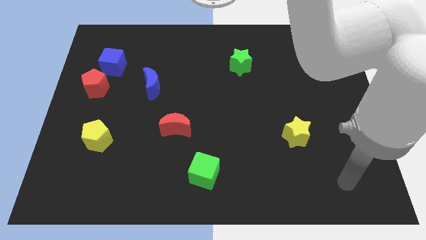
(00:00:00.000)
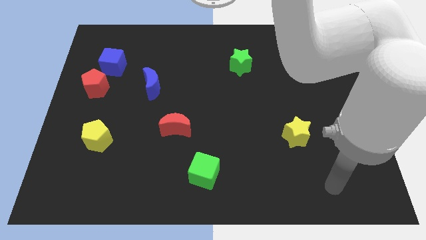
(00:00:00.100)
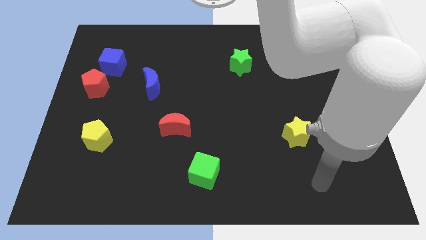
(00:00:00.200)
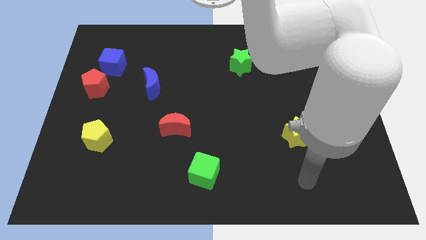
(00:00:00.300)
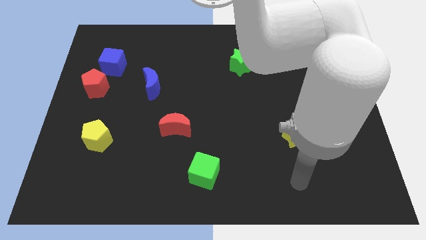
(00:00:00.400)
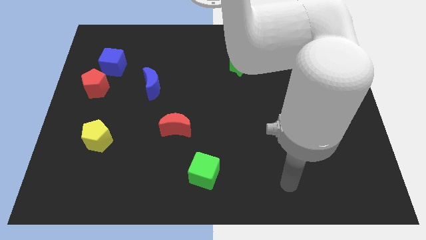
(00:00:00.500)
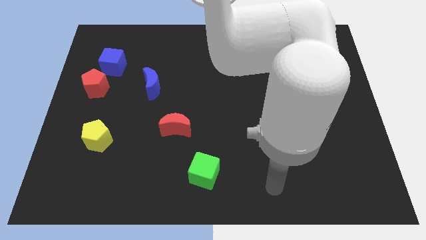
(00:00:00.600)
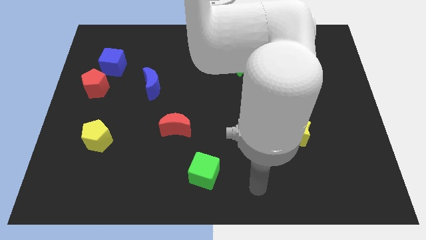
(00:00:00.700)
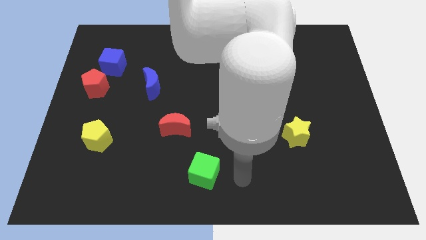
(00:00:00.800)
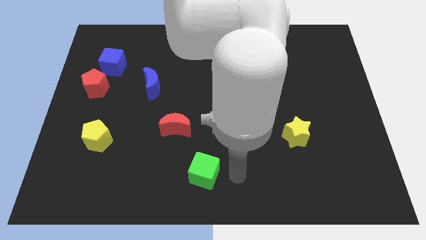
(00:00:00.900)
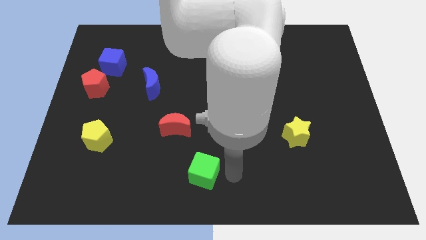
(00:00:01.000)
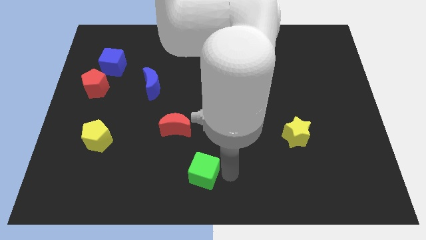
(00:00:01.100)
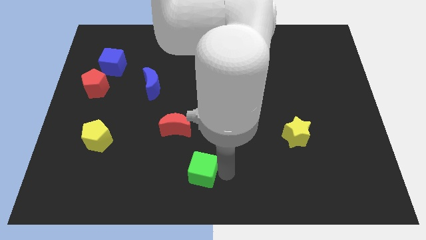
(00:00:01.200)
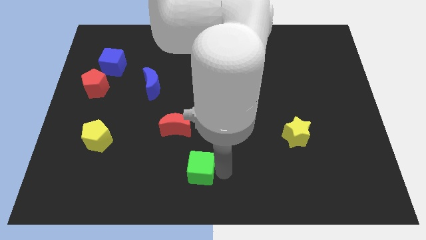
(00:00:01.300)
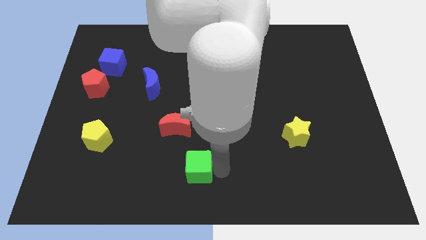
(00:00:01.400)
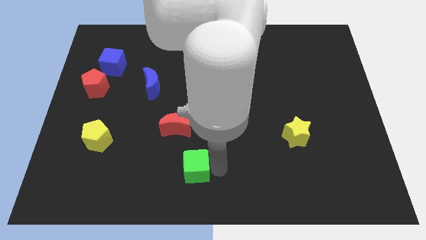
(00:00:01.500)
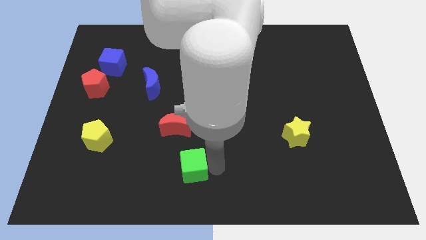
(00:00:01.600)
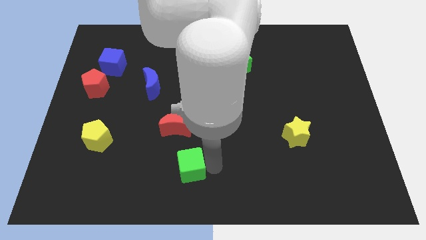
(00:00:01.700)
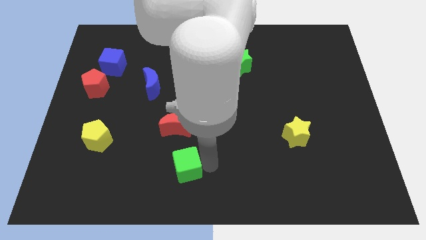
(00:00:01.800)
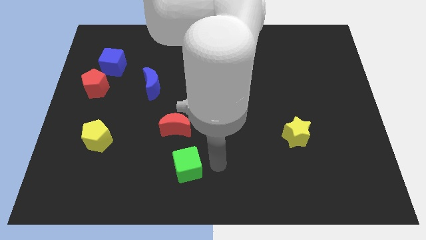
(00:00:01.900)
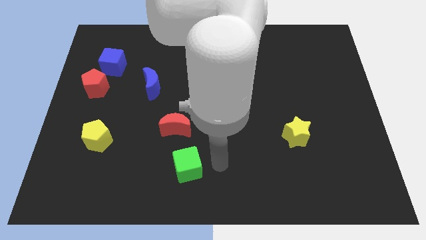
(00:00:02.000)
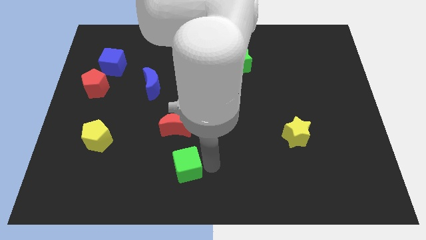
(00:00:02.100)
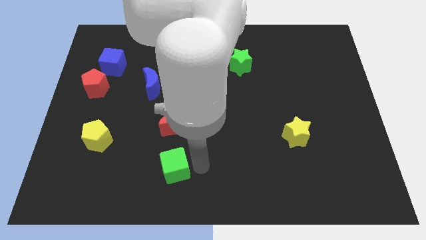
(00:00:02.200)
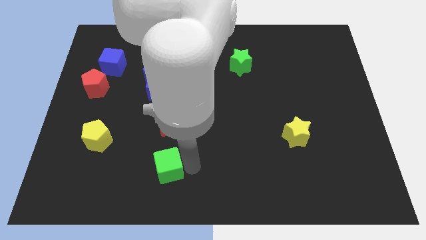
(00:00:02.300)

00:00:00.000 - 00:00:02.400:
move the green cube slightly left

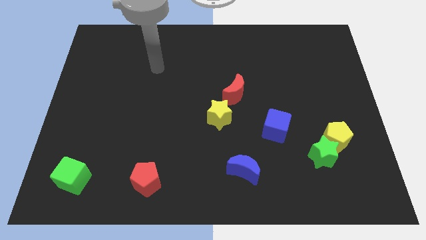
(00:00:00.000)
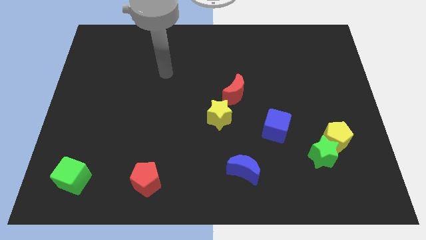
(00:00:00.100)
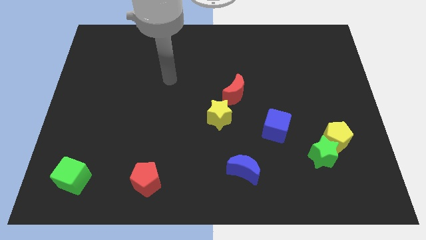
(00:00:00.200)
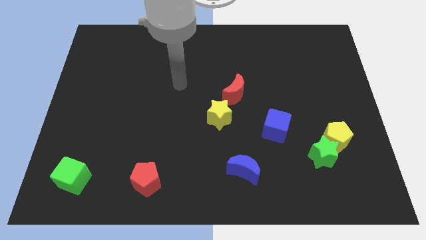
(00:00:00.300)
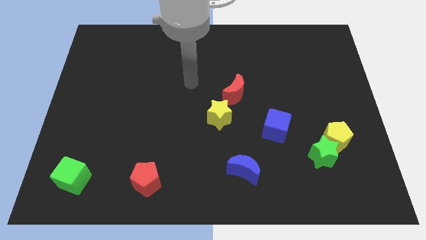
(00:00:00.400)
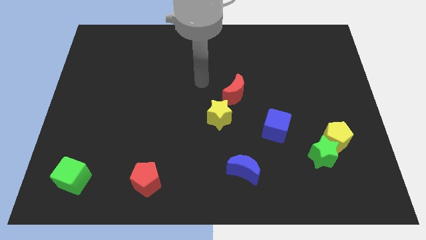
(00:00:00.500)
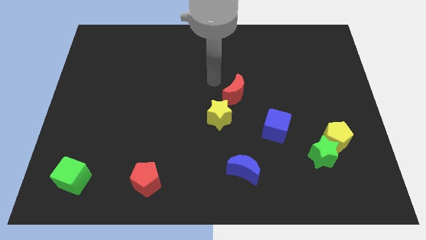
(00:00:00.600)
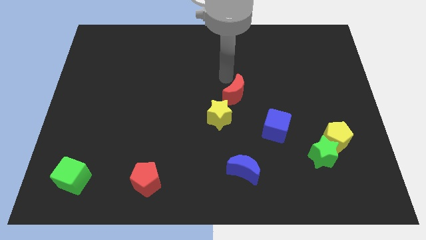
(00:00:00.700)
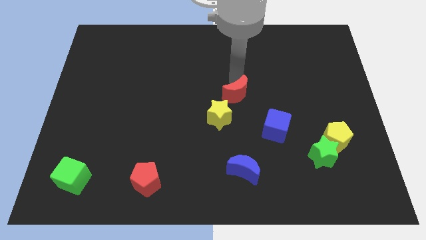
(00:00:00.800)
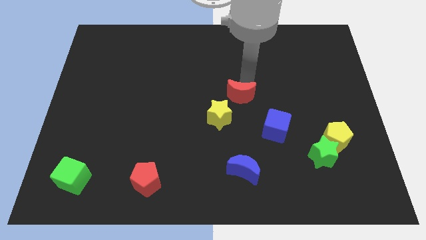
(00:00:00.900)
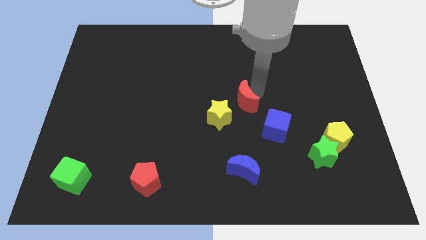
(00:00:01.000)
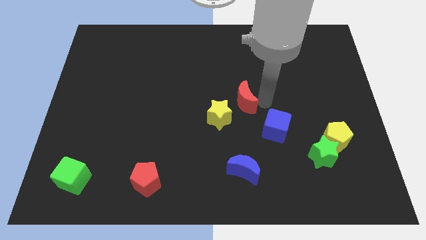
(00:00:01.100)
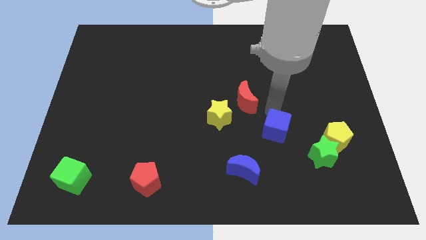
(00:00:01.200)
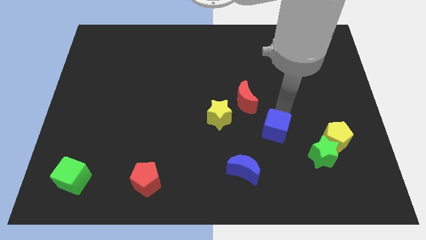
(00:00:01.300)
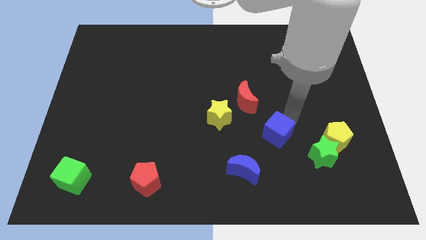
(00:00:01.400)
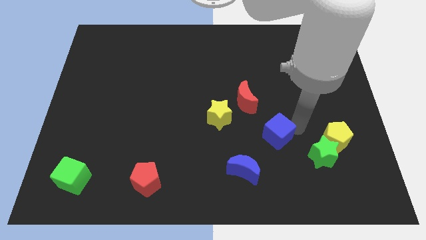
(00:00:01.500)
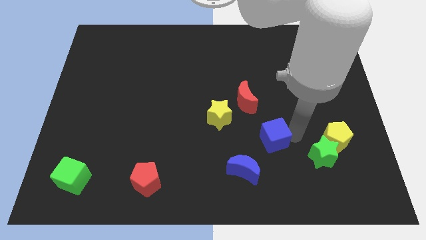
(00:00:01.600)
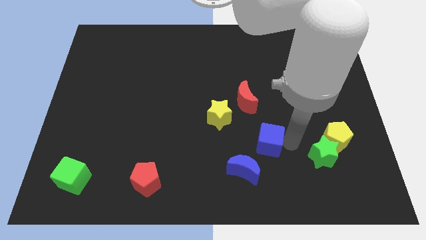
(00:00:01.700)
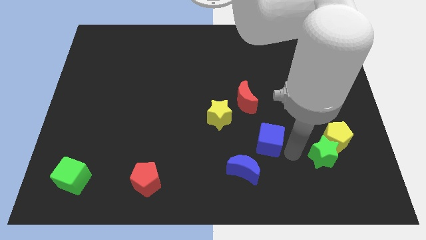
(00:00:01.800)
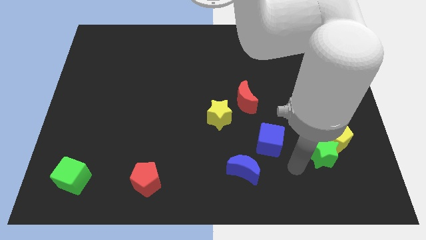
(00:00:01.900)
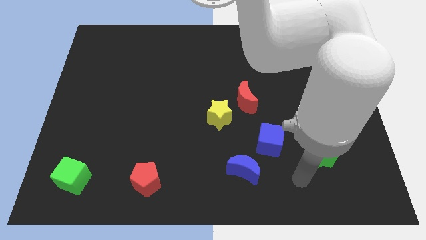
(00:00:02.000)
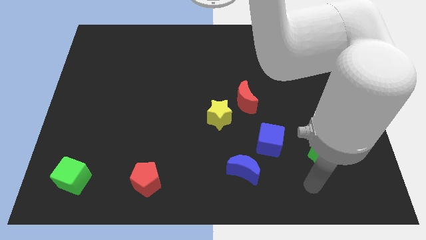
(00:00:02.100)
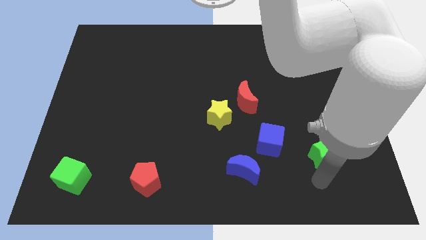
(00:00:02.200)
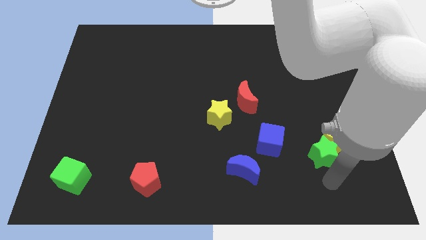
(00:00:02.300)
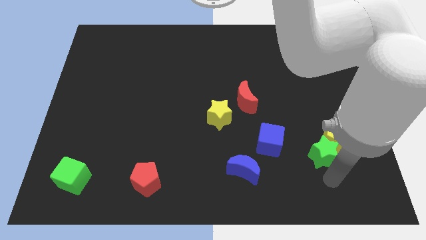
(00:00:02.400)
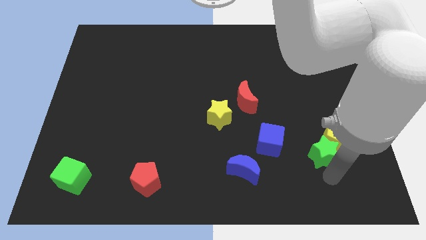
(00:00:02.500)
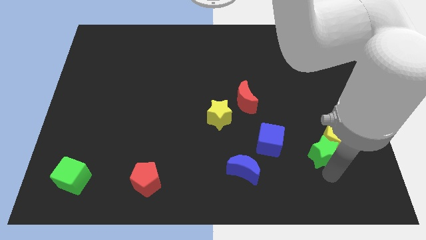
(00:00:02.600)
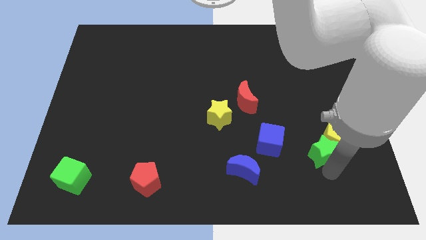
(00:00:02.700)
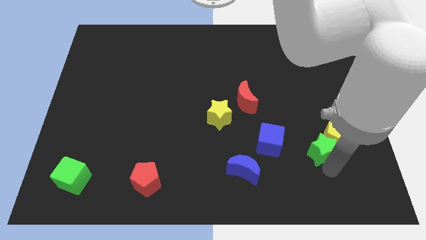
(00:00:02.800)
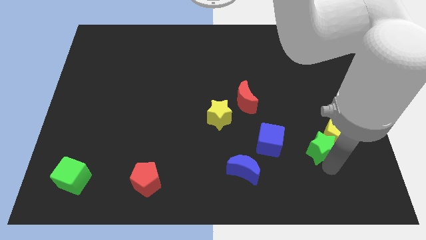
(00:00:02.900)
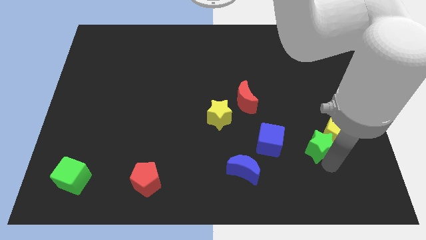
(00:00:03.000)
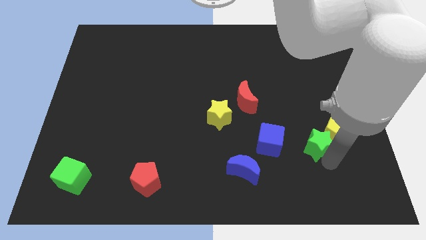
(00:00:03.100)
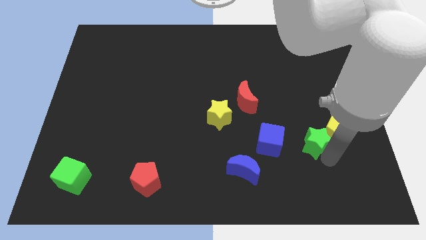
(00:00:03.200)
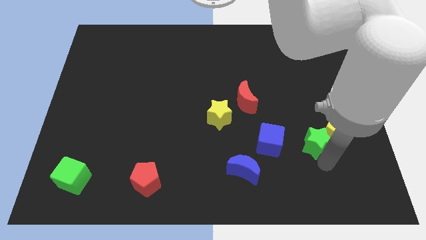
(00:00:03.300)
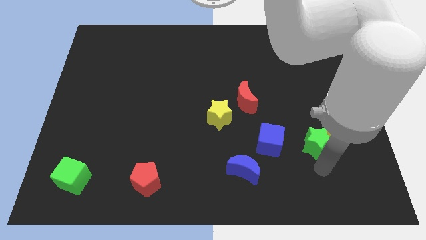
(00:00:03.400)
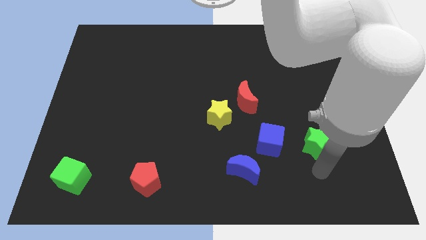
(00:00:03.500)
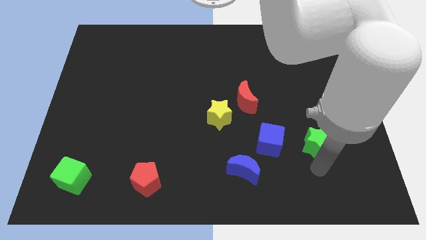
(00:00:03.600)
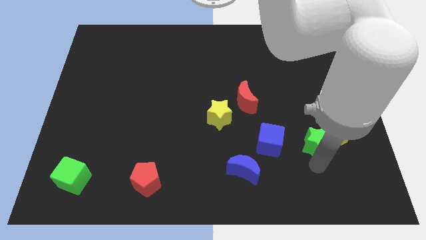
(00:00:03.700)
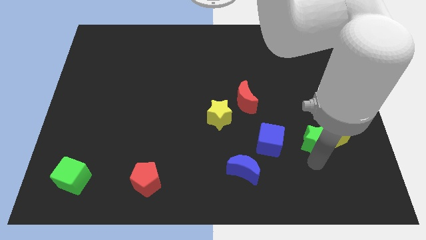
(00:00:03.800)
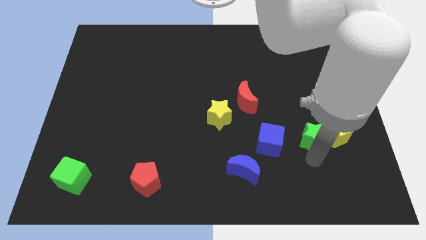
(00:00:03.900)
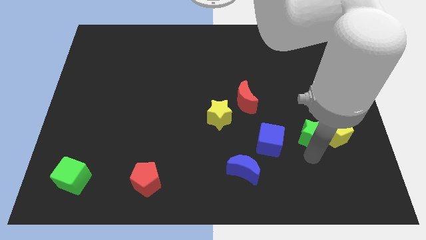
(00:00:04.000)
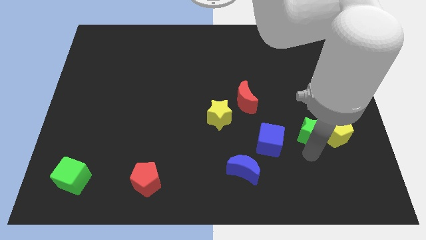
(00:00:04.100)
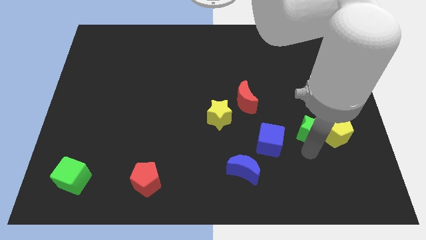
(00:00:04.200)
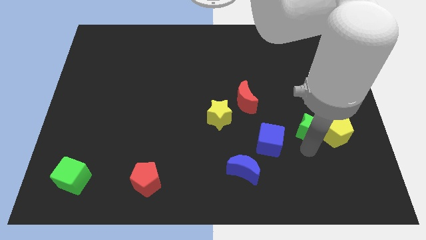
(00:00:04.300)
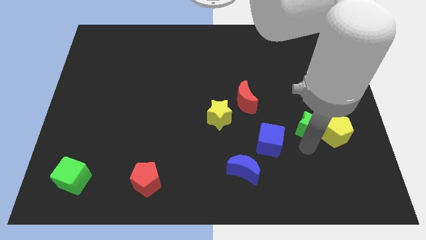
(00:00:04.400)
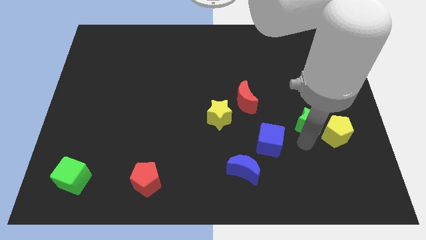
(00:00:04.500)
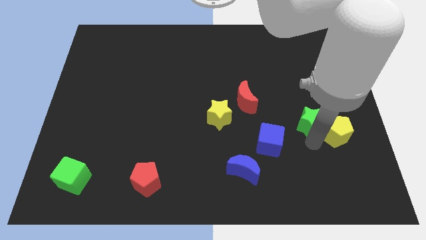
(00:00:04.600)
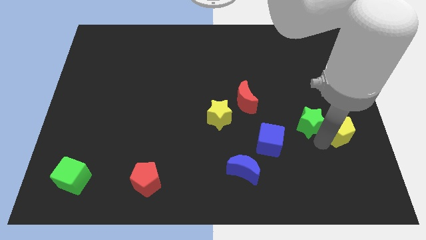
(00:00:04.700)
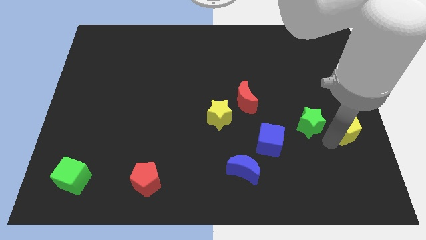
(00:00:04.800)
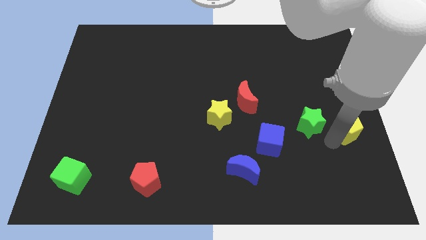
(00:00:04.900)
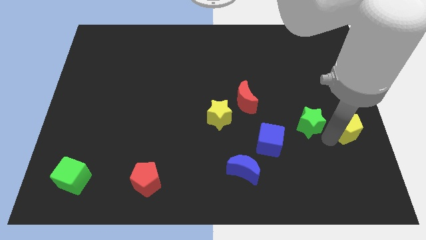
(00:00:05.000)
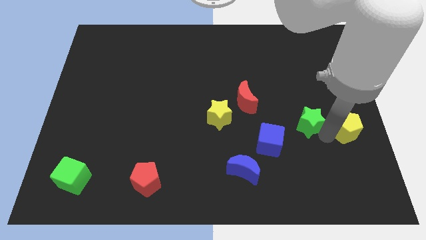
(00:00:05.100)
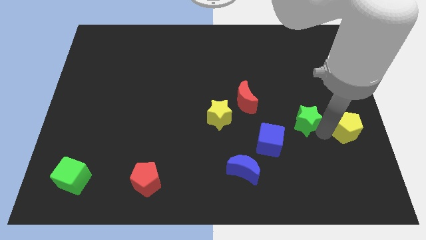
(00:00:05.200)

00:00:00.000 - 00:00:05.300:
push the green star upwards and then to the left slightly

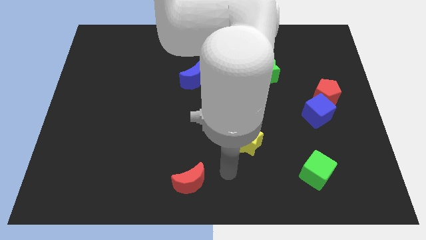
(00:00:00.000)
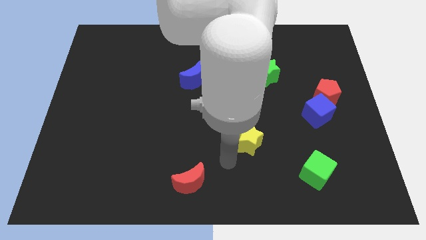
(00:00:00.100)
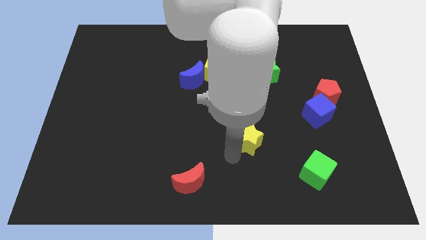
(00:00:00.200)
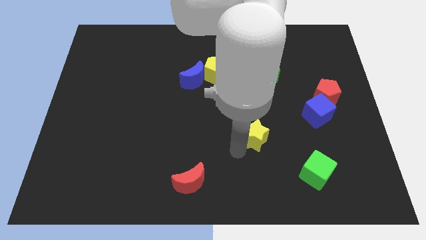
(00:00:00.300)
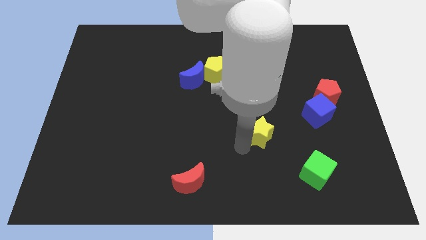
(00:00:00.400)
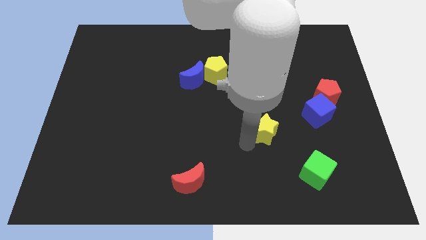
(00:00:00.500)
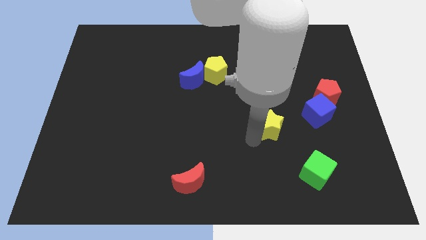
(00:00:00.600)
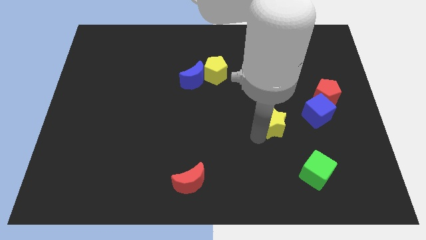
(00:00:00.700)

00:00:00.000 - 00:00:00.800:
move the yellow star a little bit upwards and then right
